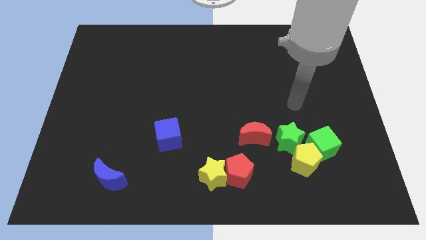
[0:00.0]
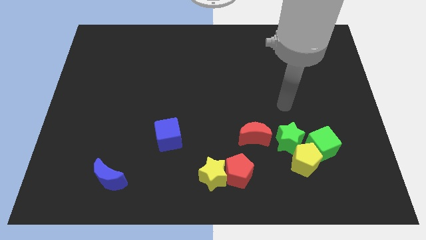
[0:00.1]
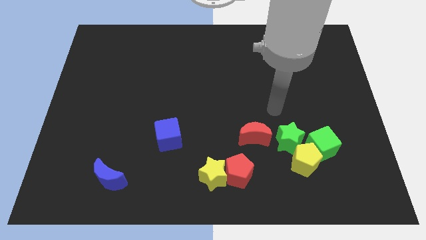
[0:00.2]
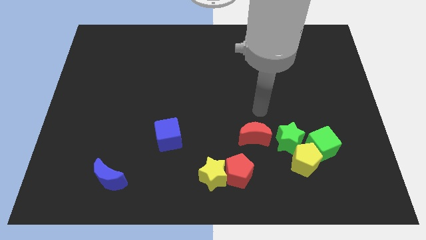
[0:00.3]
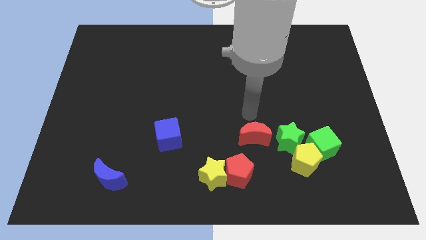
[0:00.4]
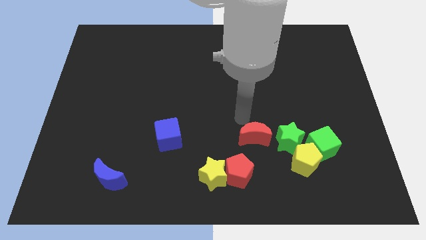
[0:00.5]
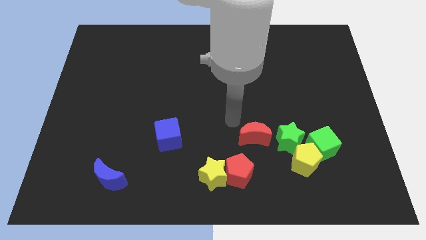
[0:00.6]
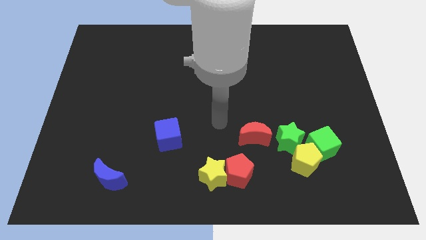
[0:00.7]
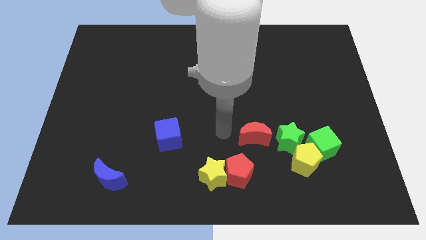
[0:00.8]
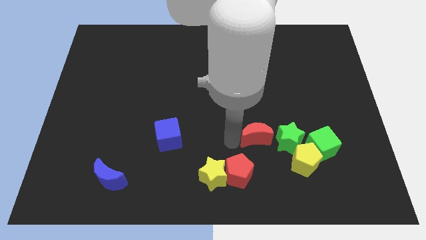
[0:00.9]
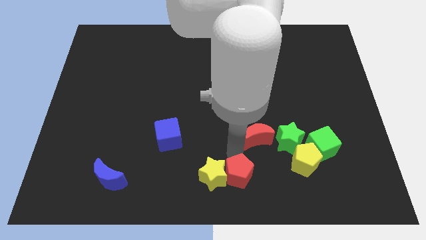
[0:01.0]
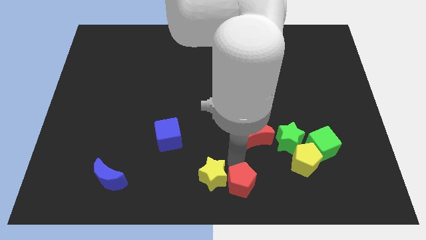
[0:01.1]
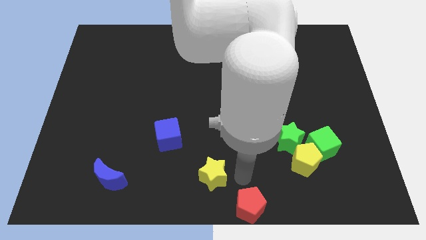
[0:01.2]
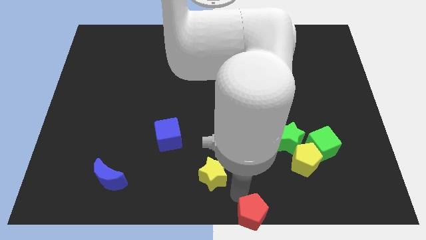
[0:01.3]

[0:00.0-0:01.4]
separate the yellow star from the red pentagon

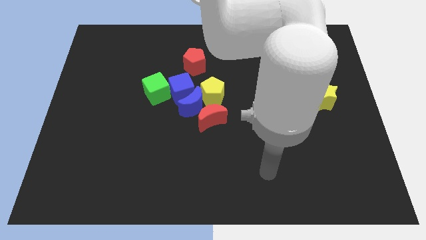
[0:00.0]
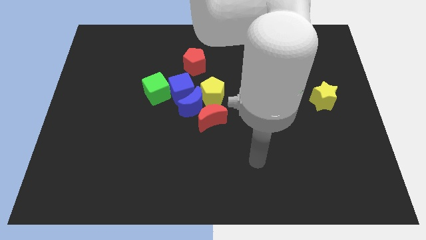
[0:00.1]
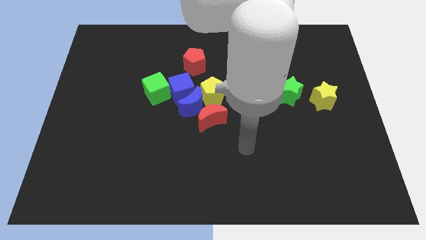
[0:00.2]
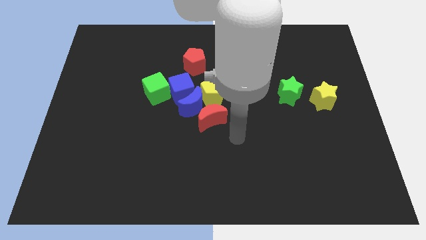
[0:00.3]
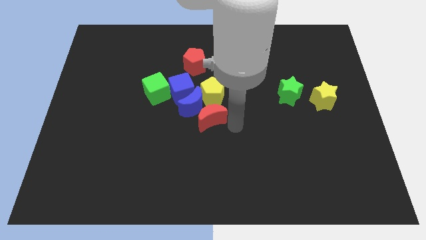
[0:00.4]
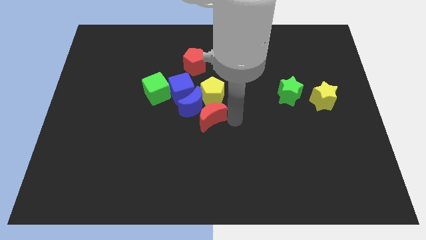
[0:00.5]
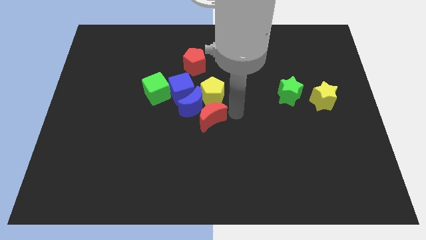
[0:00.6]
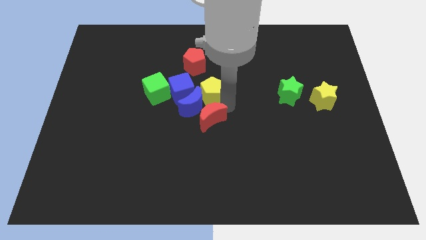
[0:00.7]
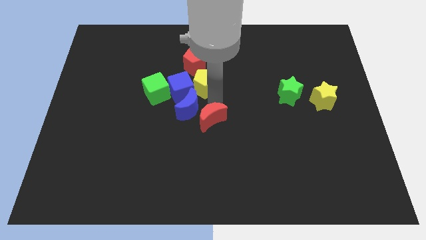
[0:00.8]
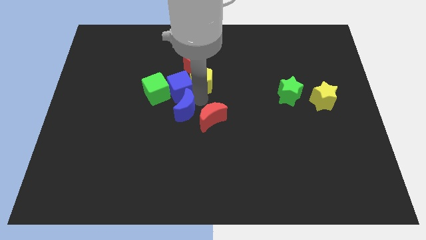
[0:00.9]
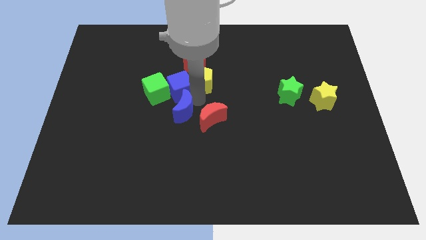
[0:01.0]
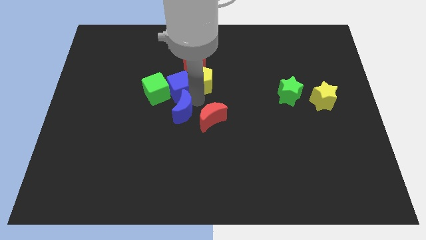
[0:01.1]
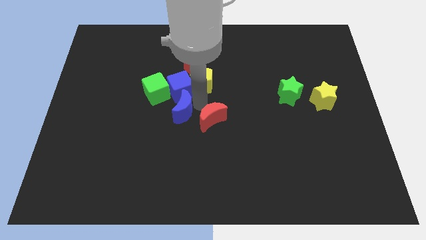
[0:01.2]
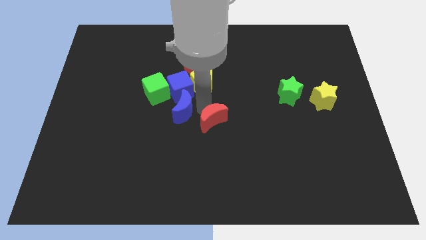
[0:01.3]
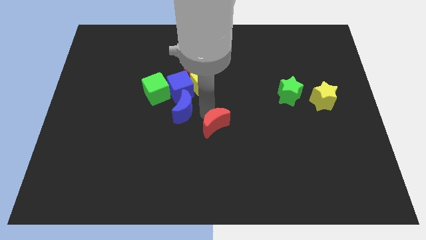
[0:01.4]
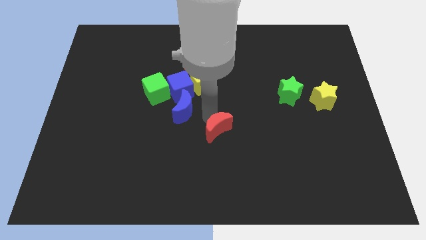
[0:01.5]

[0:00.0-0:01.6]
move the red moon away from the blue moon and yellow pentagon

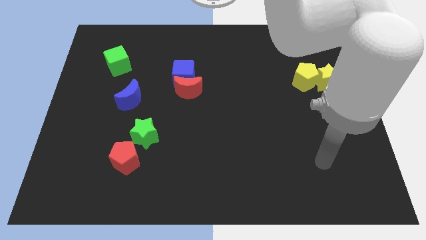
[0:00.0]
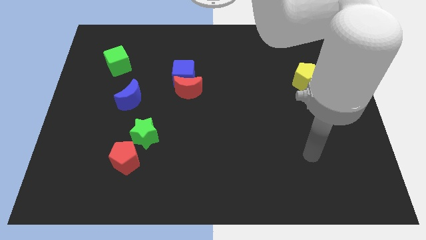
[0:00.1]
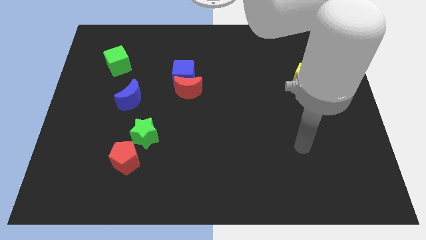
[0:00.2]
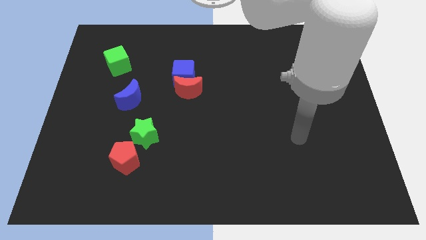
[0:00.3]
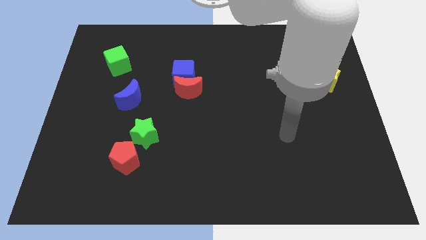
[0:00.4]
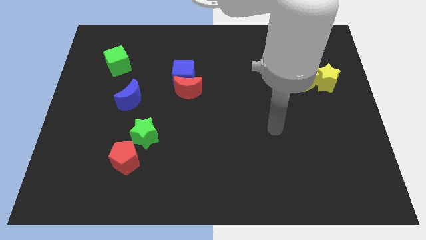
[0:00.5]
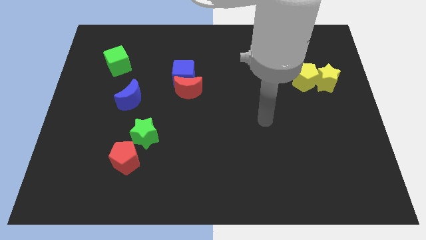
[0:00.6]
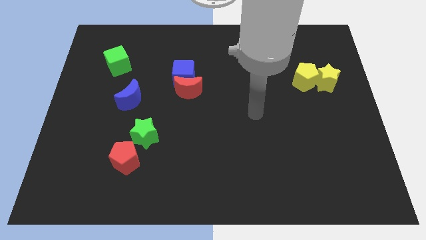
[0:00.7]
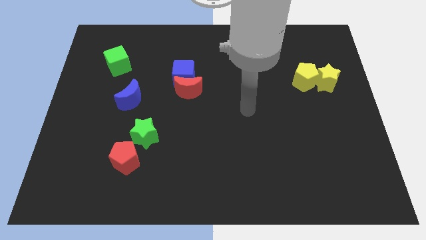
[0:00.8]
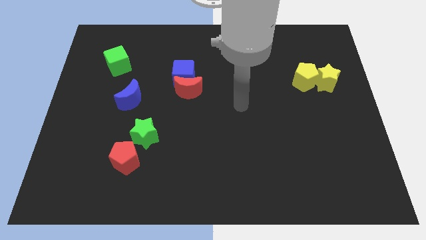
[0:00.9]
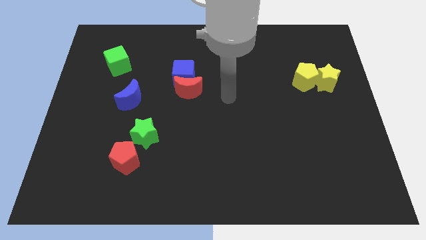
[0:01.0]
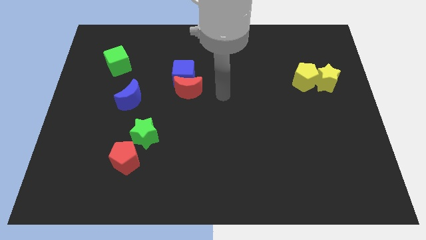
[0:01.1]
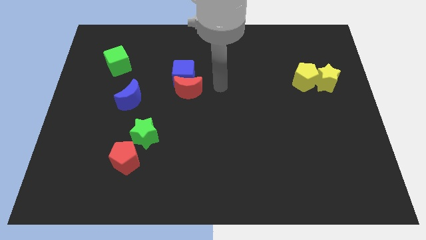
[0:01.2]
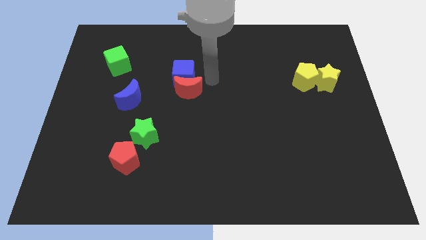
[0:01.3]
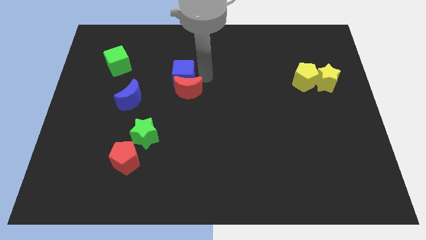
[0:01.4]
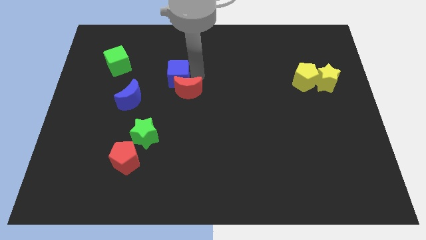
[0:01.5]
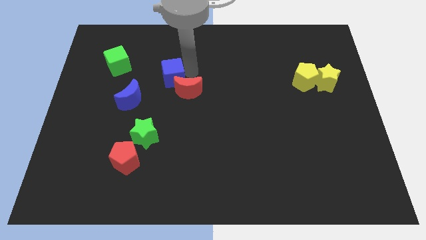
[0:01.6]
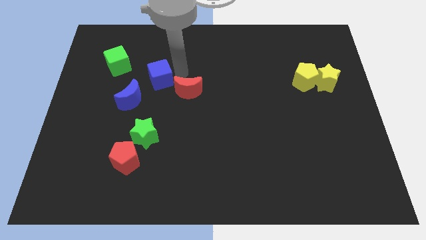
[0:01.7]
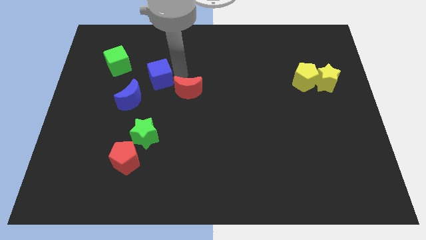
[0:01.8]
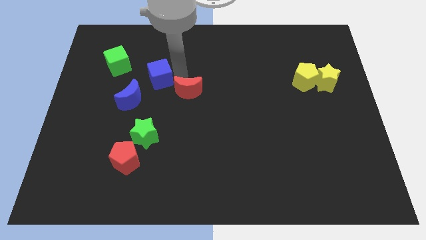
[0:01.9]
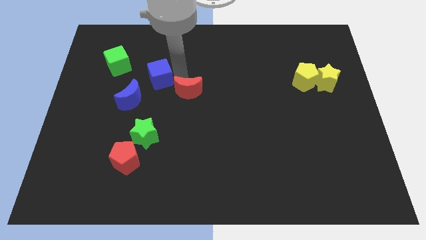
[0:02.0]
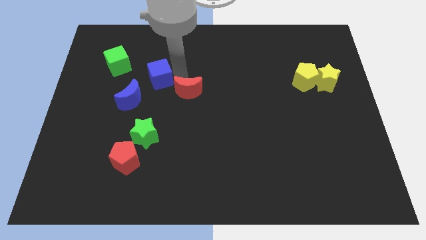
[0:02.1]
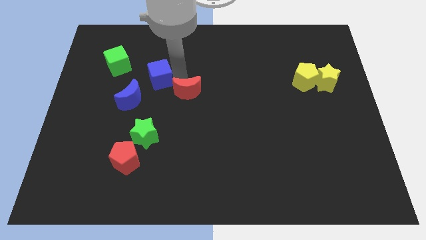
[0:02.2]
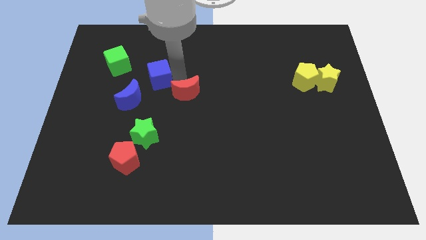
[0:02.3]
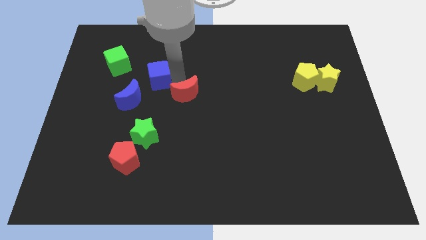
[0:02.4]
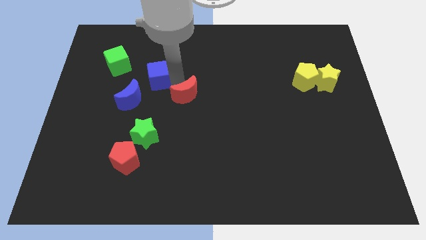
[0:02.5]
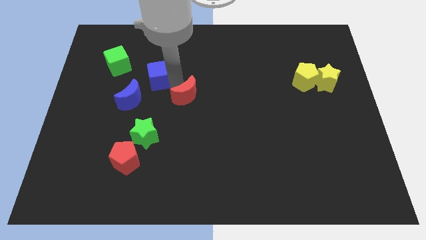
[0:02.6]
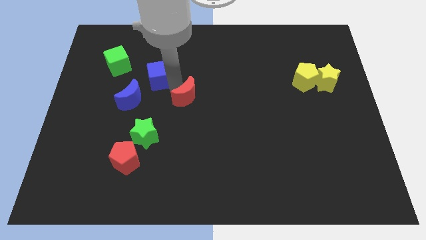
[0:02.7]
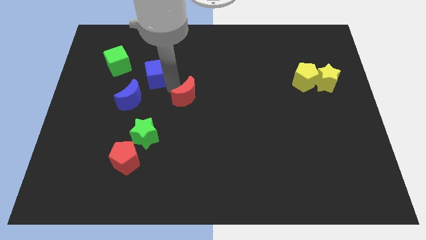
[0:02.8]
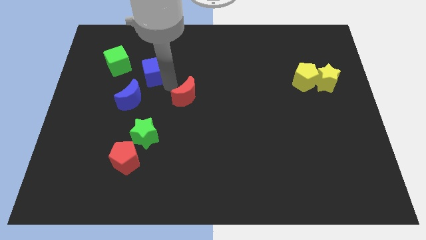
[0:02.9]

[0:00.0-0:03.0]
pull the red moon apart from the blue cube

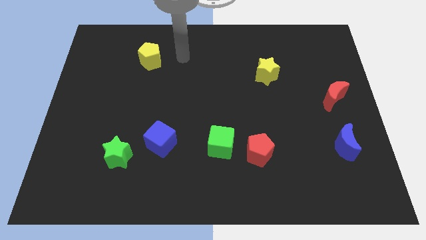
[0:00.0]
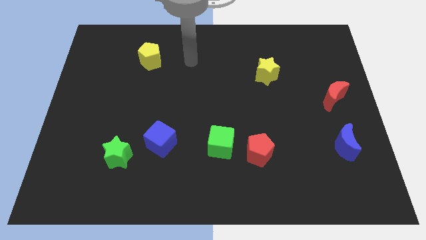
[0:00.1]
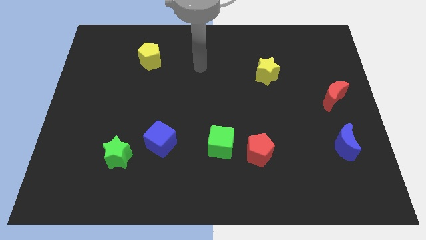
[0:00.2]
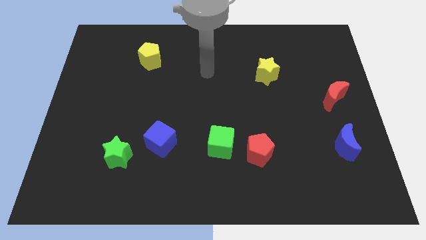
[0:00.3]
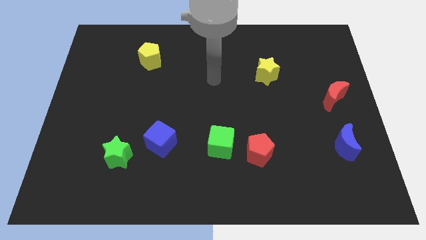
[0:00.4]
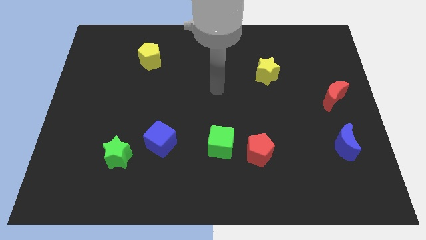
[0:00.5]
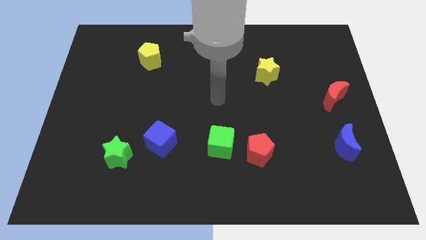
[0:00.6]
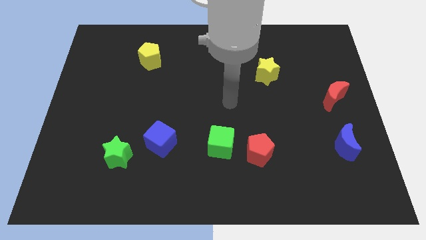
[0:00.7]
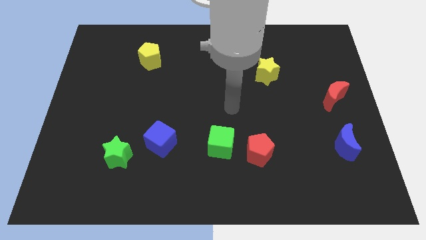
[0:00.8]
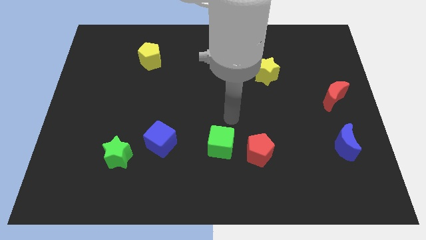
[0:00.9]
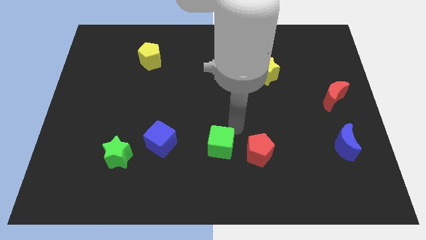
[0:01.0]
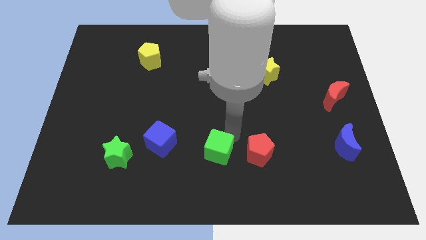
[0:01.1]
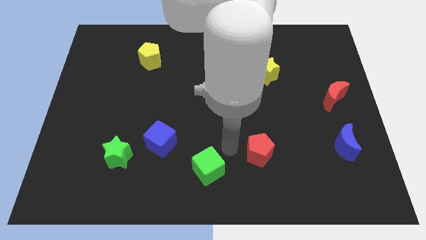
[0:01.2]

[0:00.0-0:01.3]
pull the red pentagon apart from the green cube

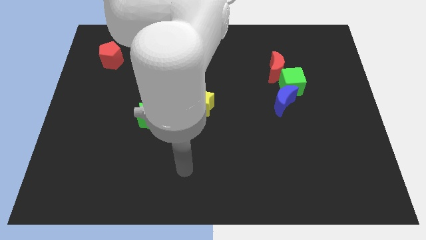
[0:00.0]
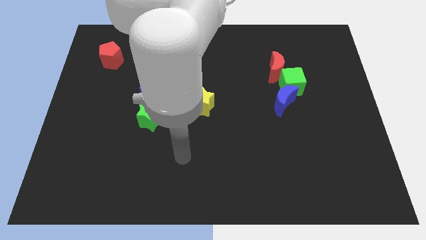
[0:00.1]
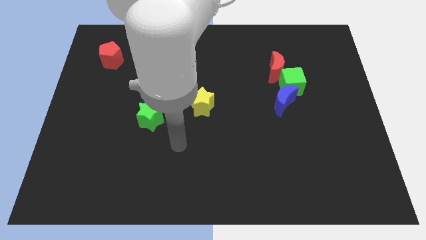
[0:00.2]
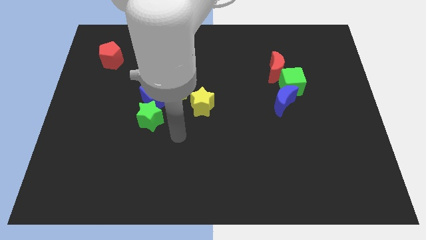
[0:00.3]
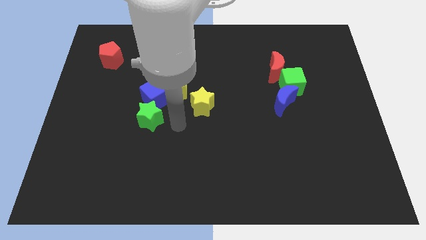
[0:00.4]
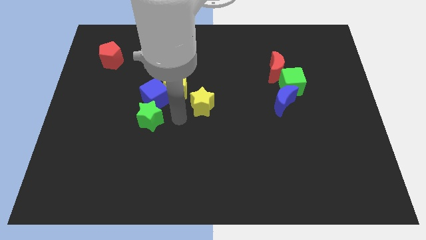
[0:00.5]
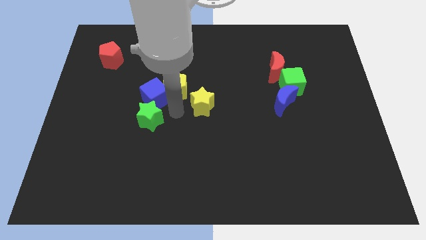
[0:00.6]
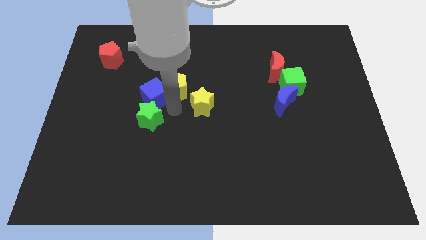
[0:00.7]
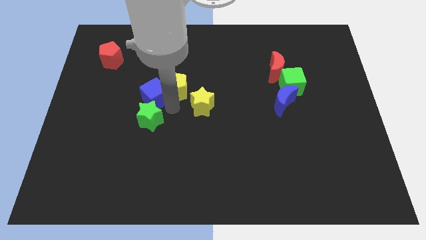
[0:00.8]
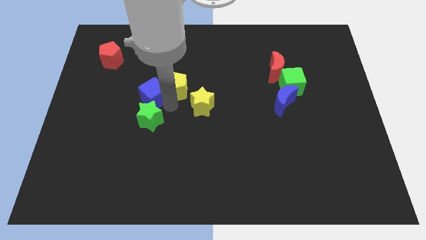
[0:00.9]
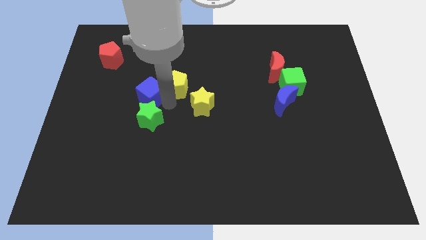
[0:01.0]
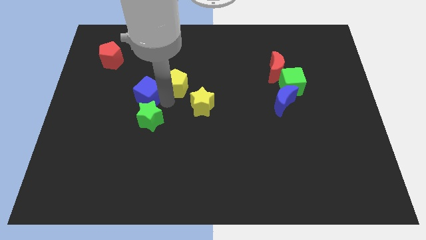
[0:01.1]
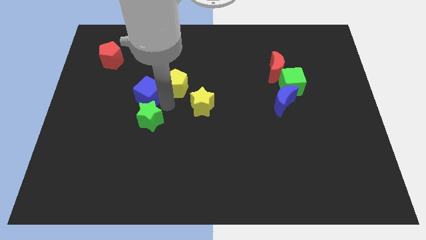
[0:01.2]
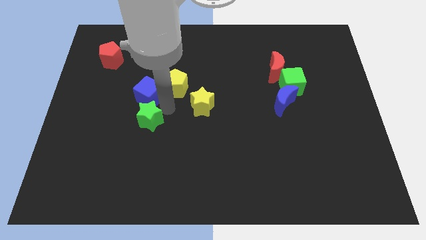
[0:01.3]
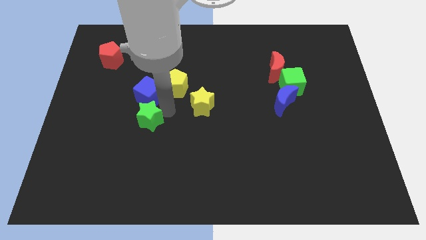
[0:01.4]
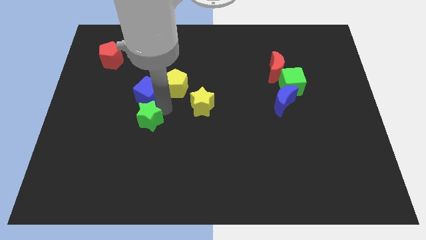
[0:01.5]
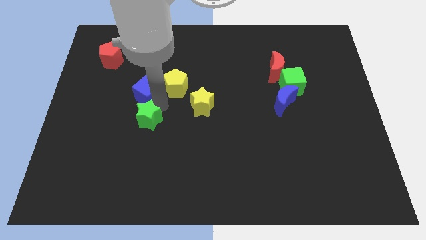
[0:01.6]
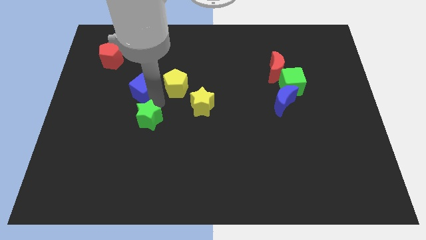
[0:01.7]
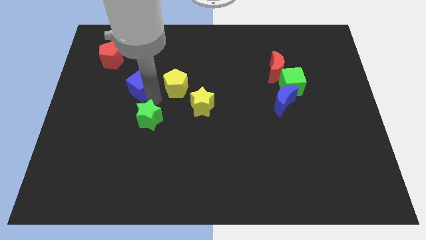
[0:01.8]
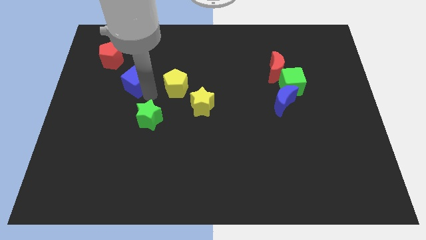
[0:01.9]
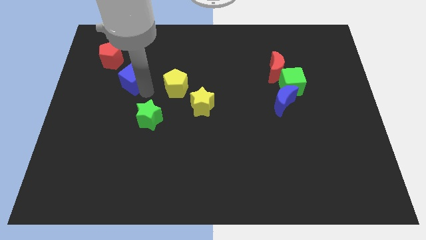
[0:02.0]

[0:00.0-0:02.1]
pull the blue cube apart from the yellow pentagon and green star
